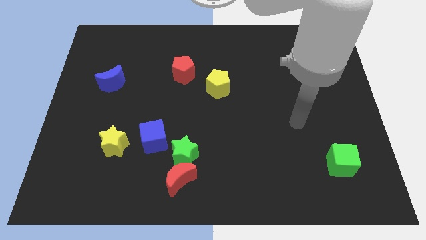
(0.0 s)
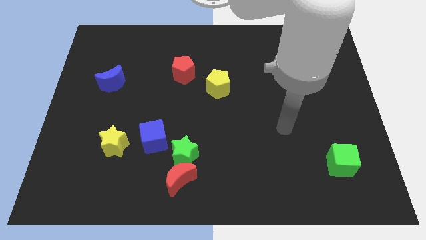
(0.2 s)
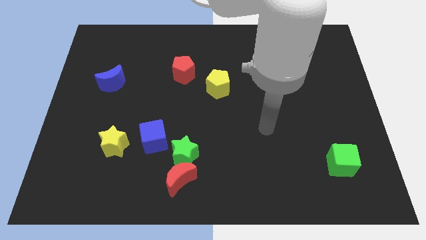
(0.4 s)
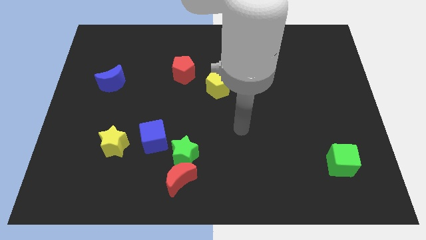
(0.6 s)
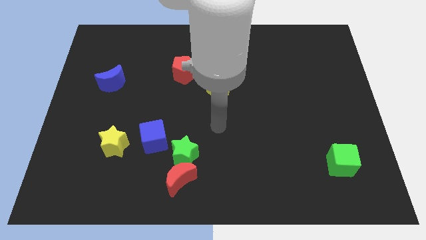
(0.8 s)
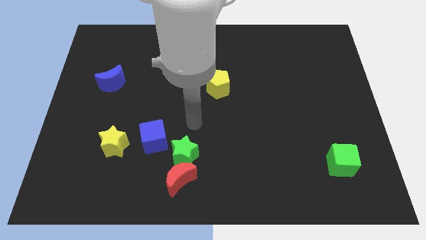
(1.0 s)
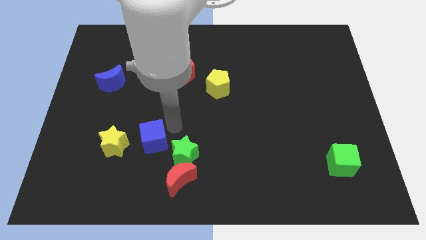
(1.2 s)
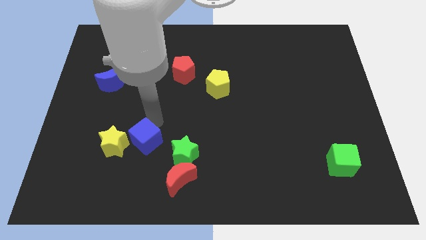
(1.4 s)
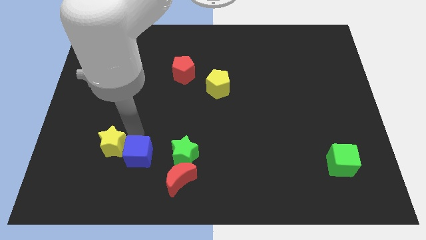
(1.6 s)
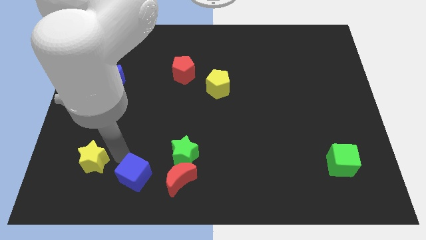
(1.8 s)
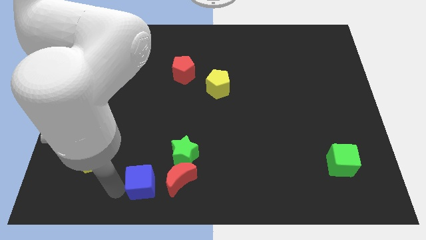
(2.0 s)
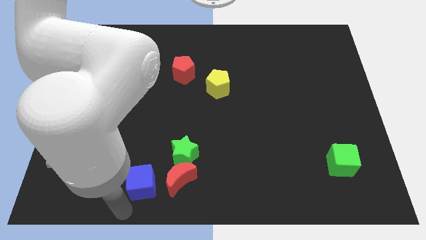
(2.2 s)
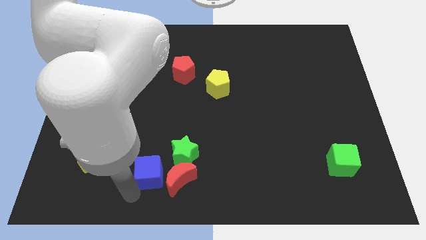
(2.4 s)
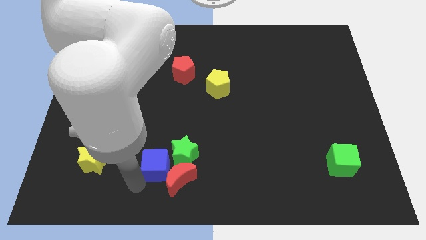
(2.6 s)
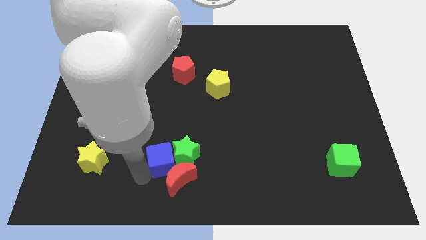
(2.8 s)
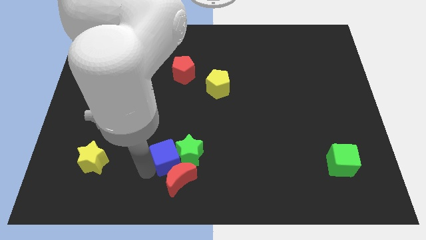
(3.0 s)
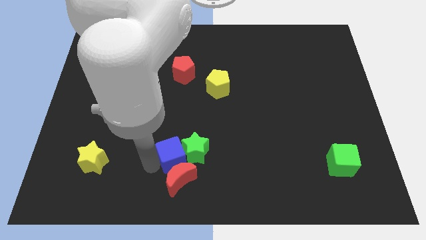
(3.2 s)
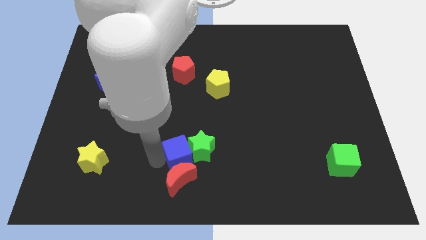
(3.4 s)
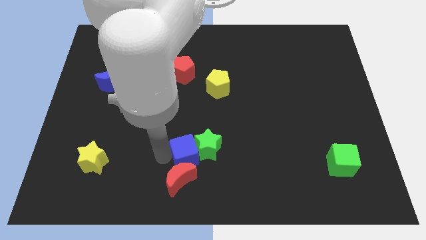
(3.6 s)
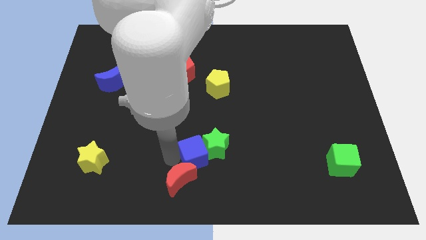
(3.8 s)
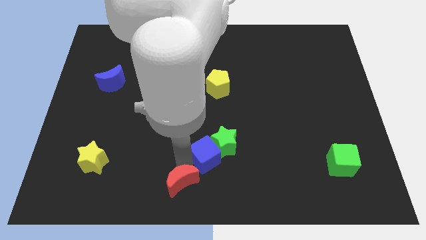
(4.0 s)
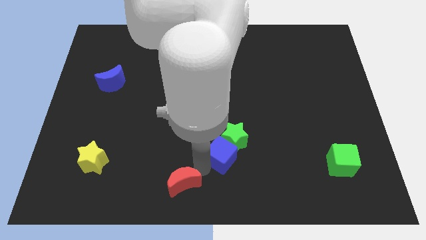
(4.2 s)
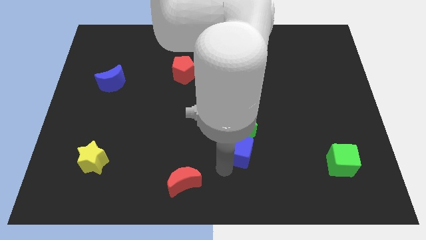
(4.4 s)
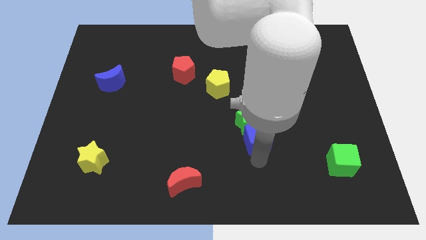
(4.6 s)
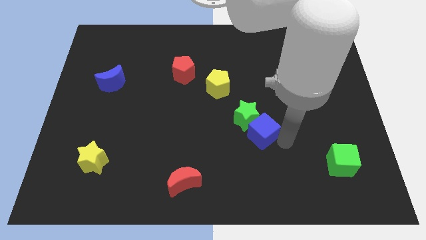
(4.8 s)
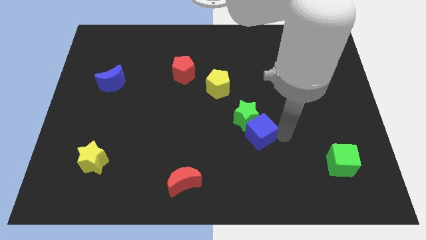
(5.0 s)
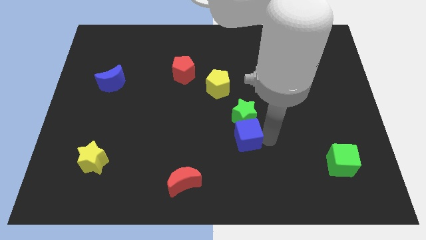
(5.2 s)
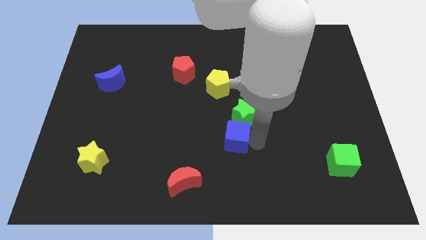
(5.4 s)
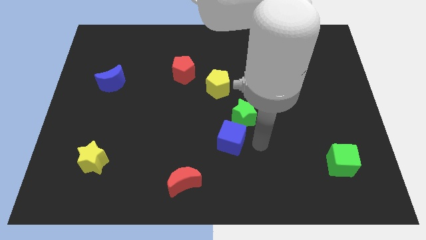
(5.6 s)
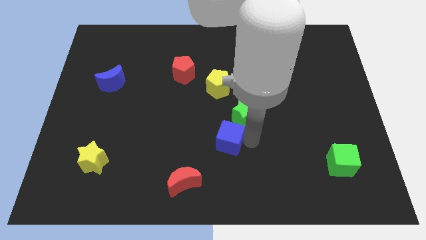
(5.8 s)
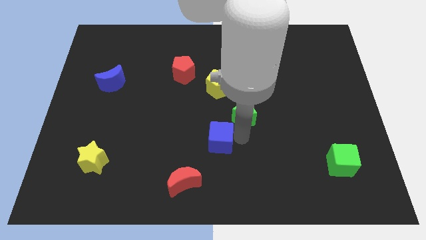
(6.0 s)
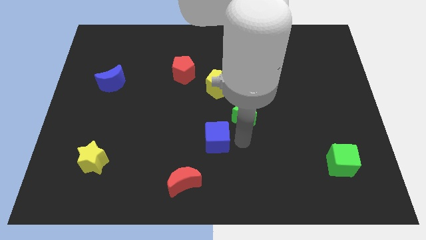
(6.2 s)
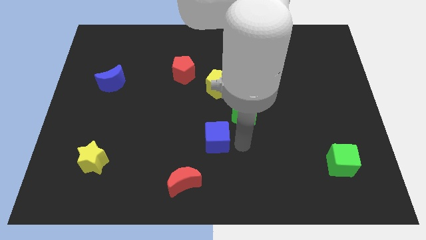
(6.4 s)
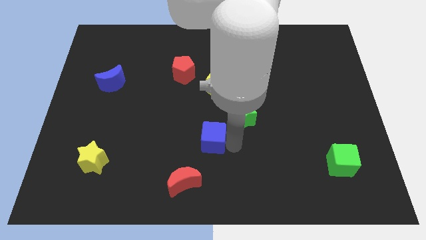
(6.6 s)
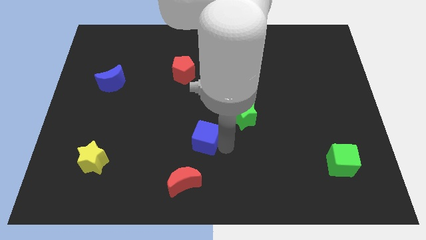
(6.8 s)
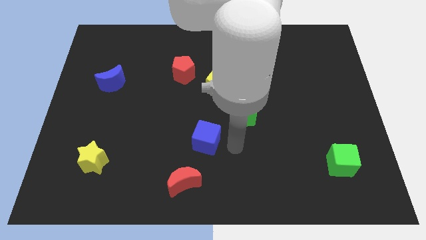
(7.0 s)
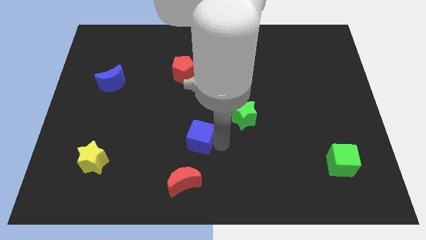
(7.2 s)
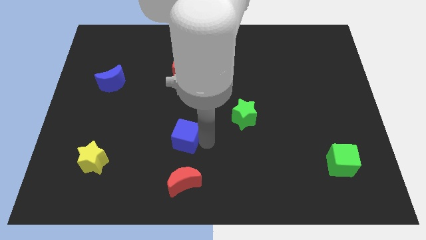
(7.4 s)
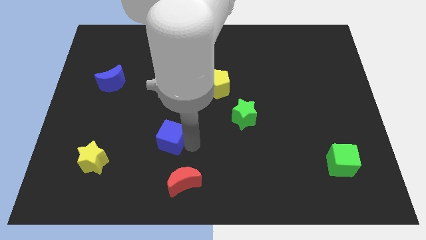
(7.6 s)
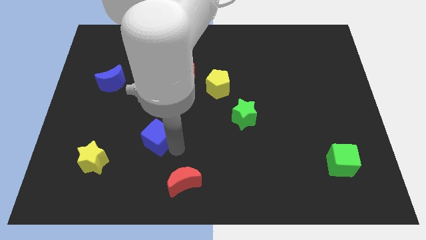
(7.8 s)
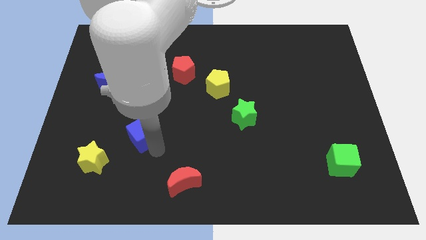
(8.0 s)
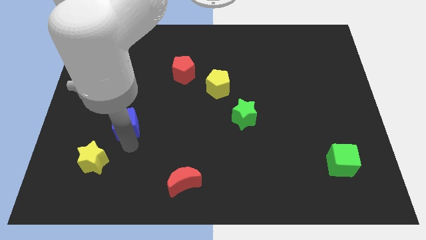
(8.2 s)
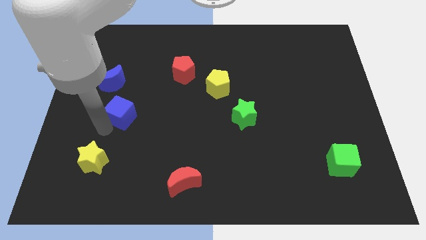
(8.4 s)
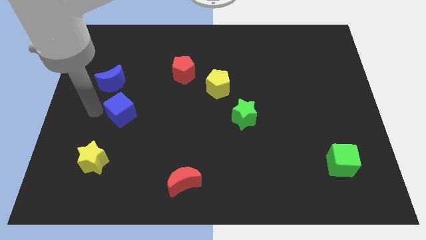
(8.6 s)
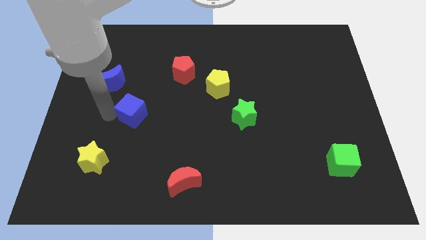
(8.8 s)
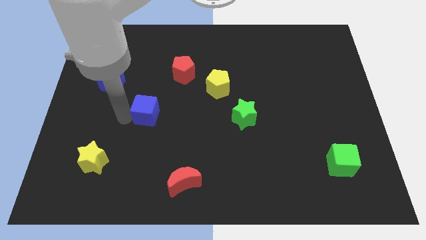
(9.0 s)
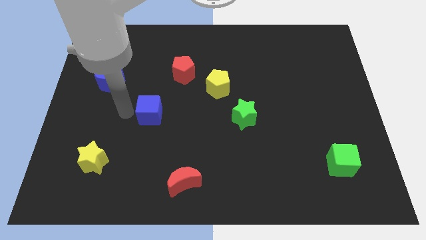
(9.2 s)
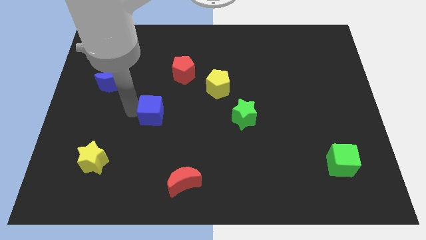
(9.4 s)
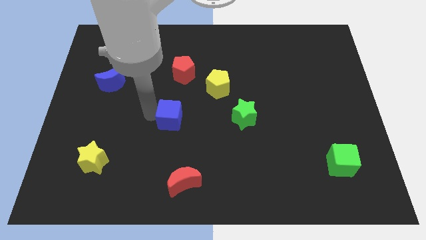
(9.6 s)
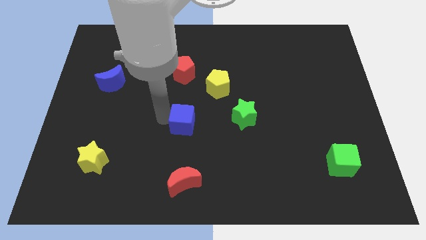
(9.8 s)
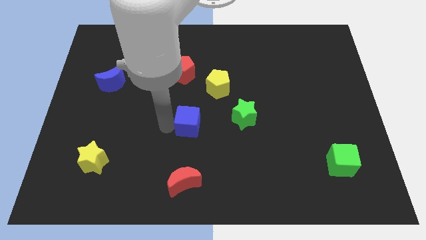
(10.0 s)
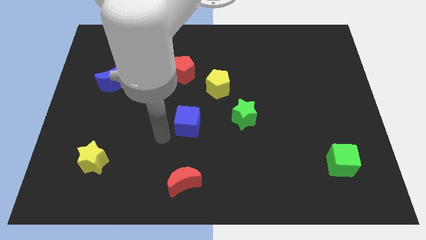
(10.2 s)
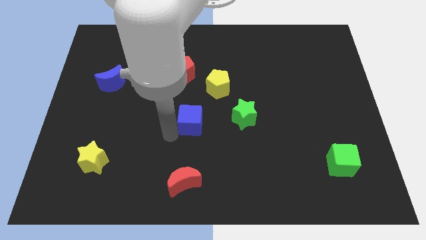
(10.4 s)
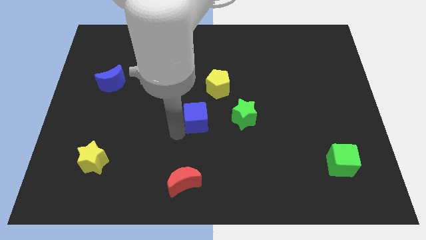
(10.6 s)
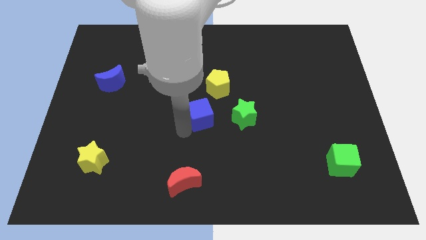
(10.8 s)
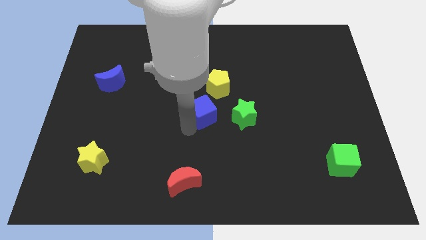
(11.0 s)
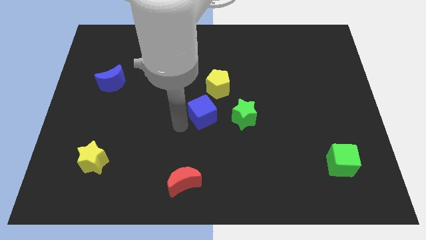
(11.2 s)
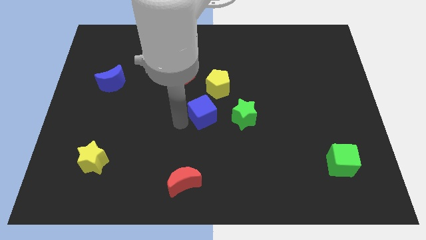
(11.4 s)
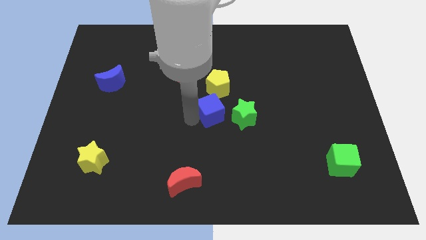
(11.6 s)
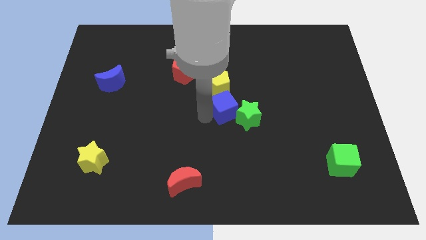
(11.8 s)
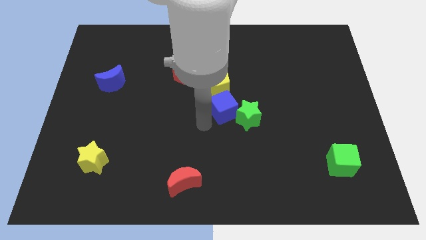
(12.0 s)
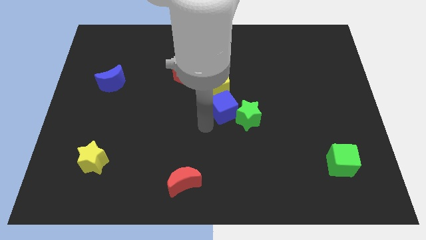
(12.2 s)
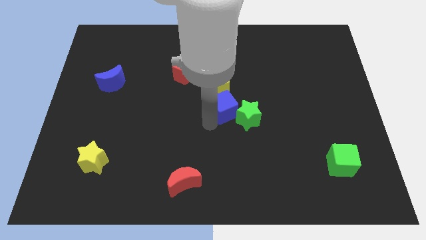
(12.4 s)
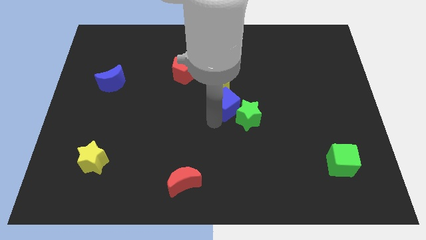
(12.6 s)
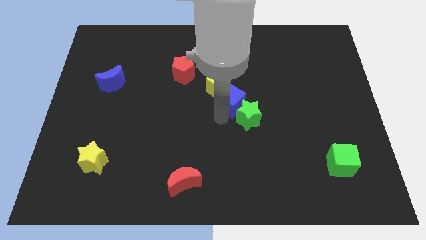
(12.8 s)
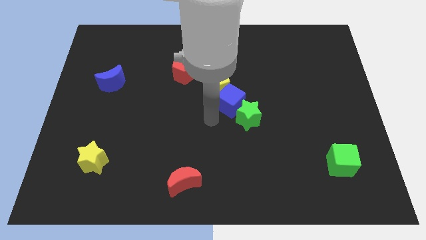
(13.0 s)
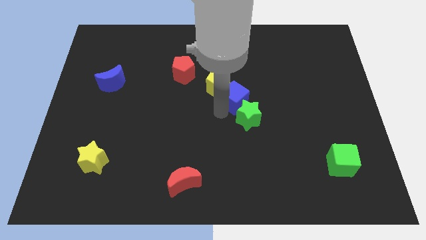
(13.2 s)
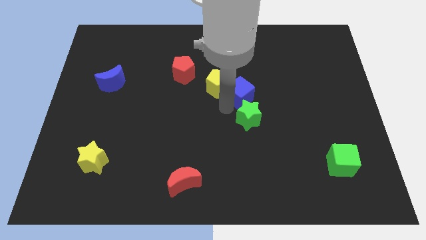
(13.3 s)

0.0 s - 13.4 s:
move the blue cube up and to the right

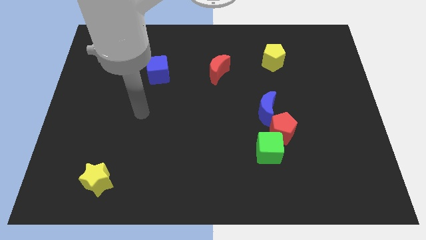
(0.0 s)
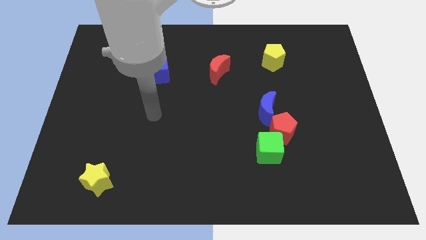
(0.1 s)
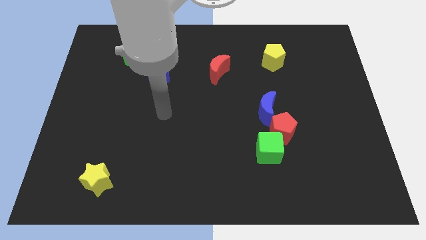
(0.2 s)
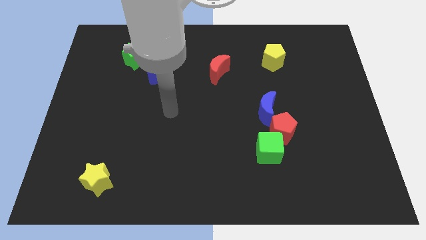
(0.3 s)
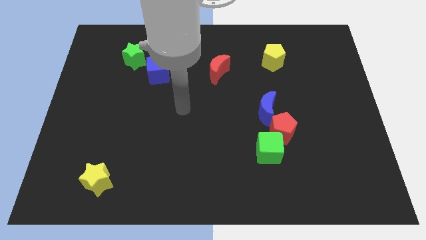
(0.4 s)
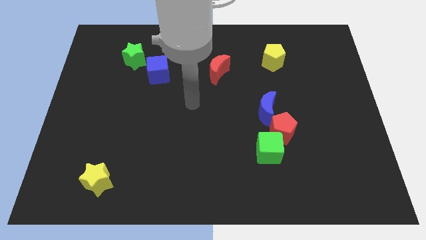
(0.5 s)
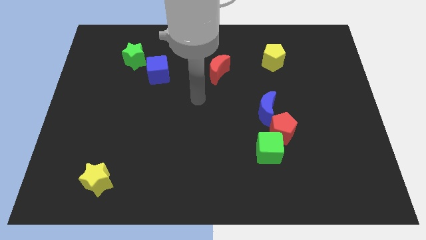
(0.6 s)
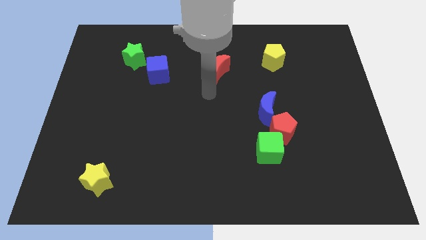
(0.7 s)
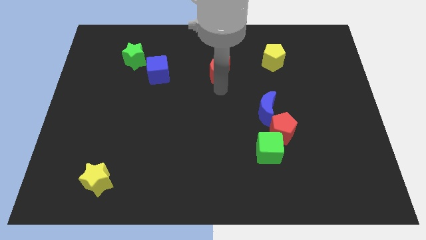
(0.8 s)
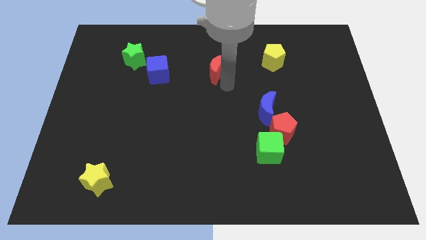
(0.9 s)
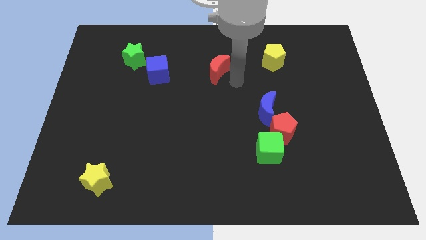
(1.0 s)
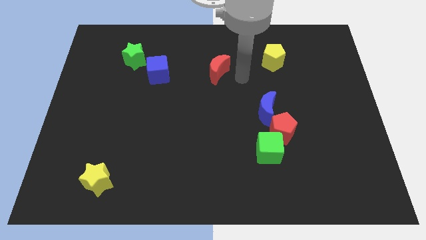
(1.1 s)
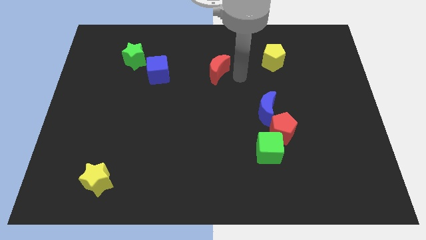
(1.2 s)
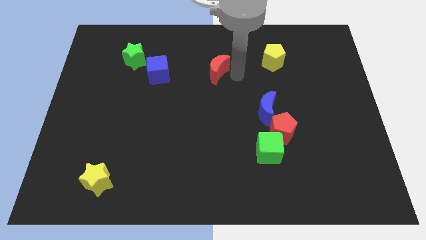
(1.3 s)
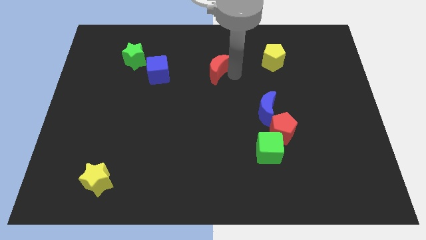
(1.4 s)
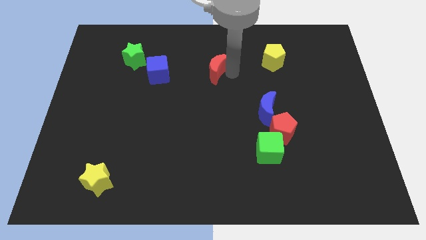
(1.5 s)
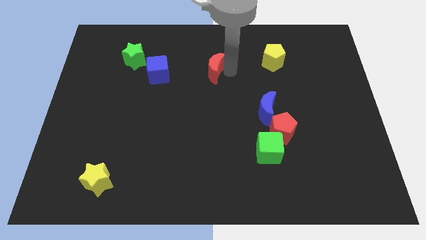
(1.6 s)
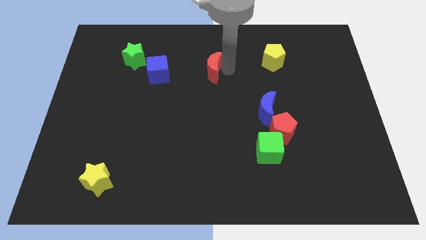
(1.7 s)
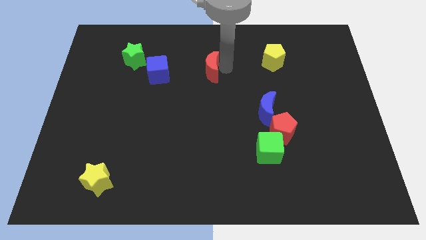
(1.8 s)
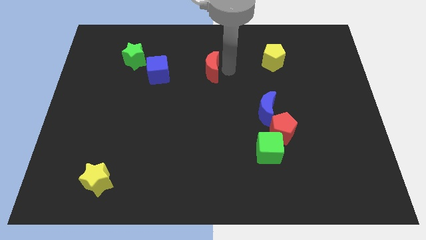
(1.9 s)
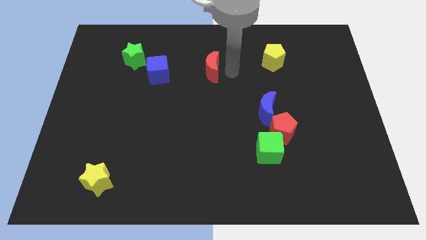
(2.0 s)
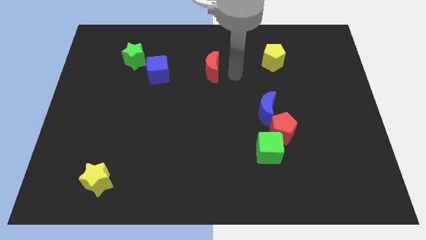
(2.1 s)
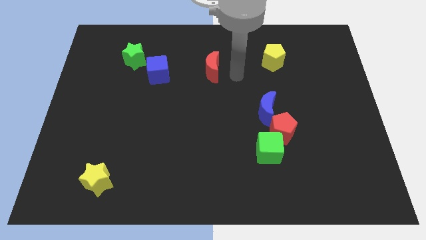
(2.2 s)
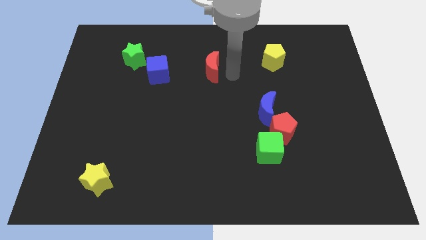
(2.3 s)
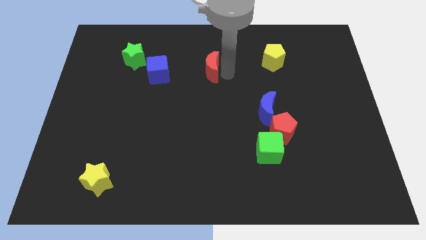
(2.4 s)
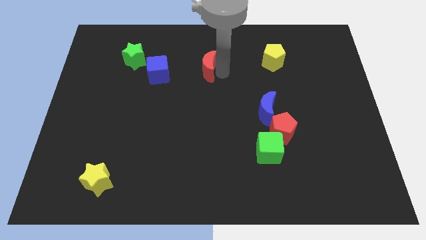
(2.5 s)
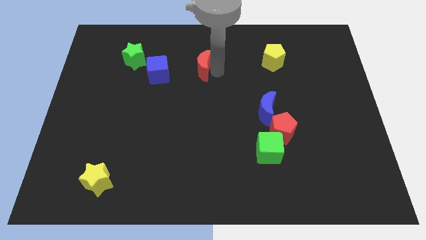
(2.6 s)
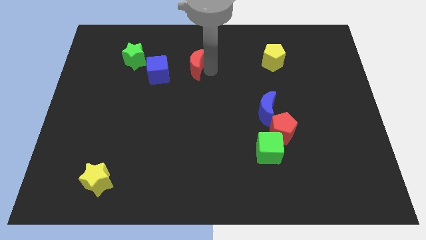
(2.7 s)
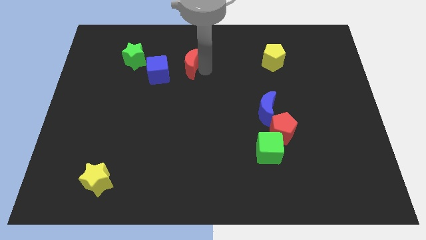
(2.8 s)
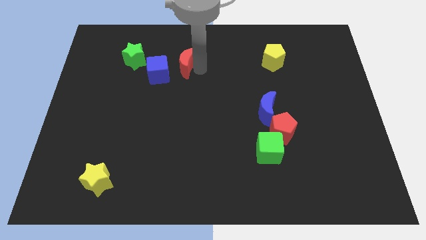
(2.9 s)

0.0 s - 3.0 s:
push the red moon to the left somewhat
